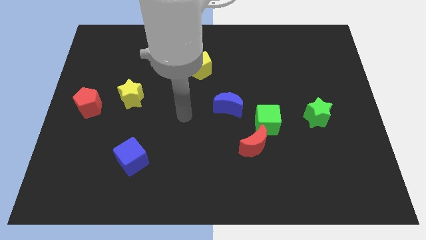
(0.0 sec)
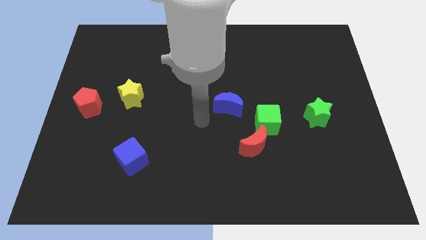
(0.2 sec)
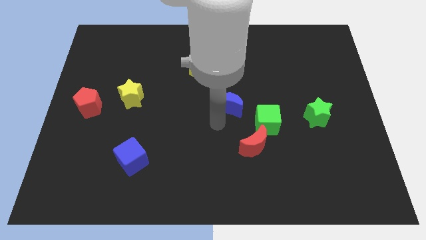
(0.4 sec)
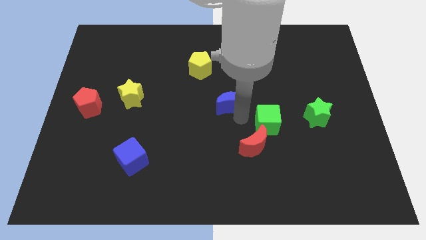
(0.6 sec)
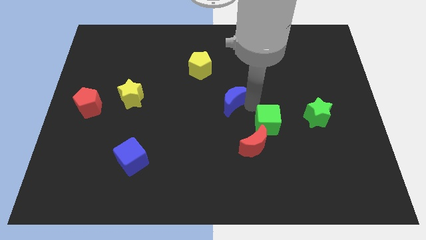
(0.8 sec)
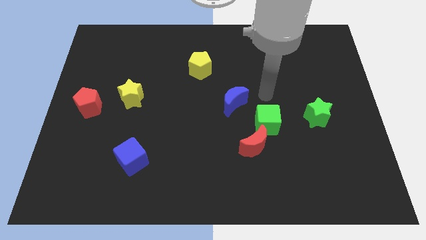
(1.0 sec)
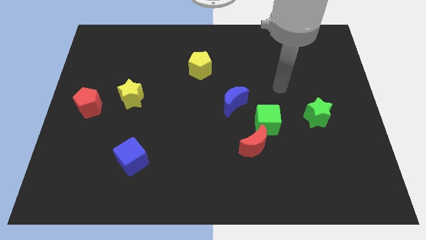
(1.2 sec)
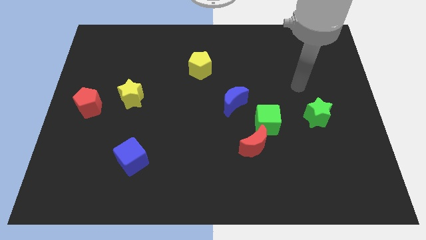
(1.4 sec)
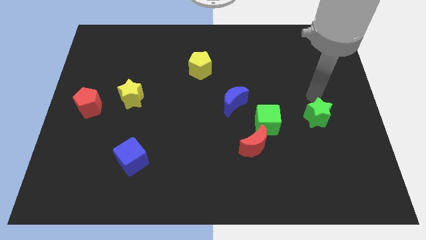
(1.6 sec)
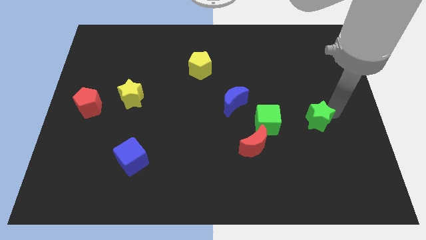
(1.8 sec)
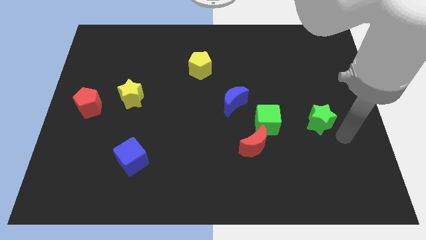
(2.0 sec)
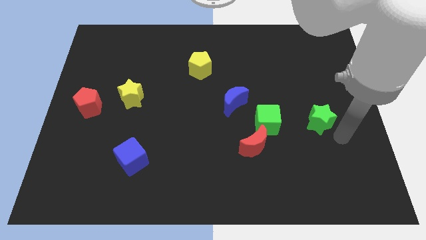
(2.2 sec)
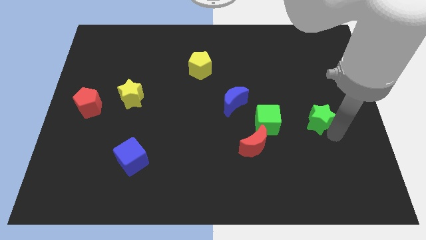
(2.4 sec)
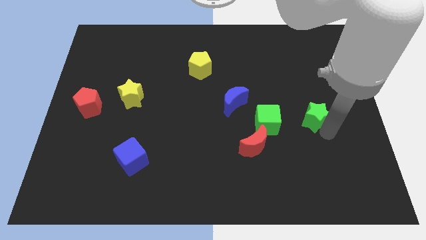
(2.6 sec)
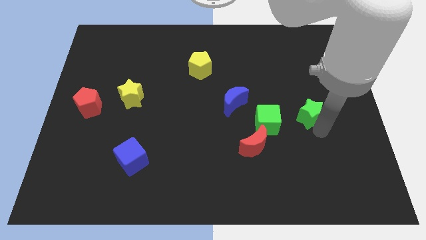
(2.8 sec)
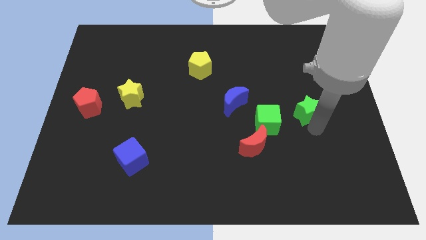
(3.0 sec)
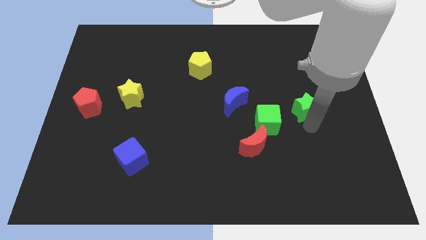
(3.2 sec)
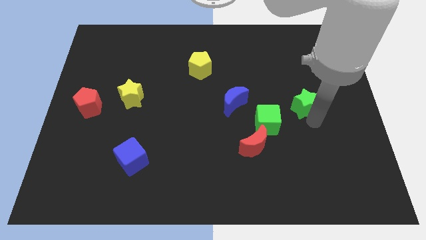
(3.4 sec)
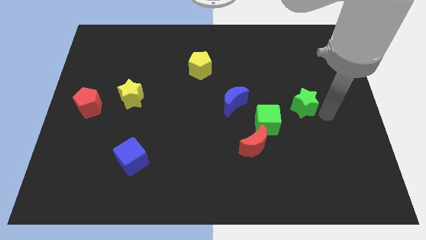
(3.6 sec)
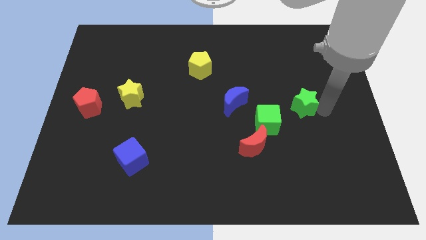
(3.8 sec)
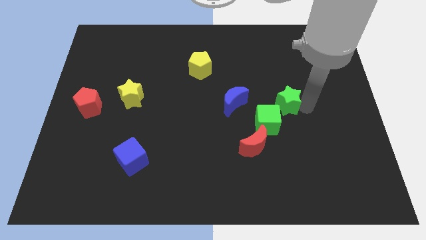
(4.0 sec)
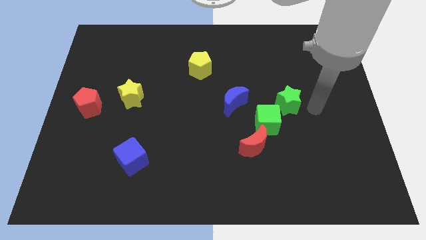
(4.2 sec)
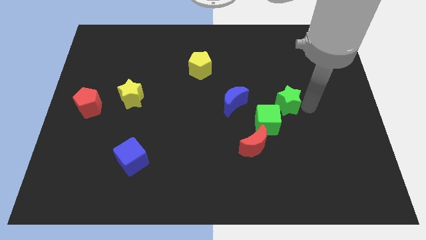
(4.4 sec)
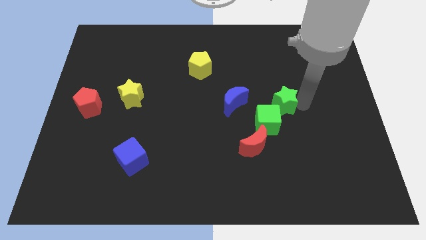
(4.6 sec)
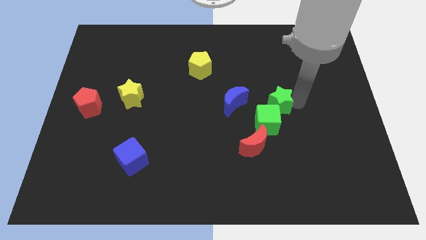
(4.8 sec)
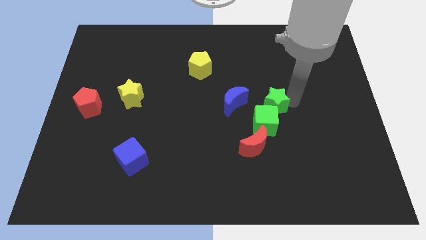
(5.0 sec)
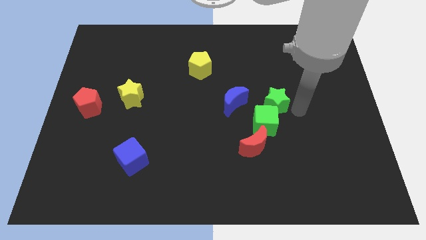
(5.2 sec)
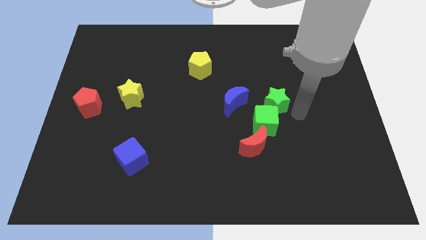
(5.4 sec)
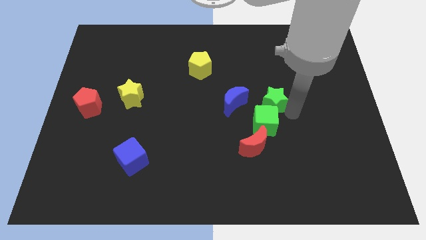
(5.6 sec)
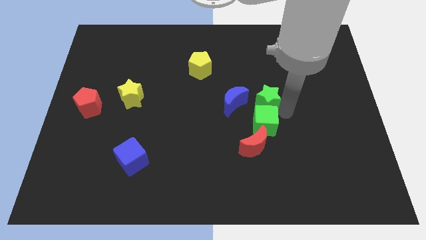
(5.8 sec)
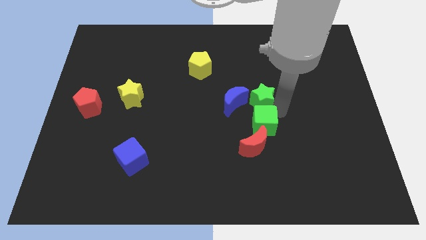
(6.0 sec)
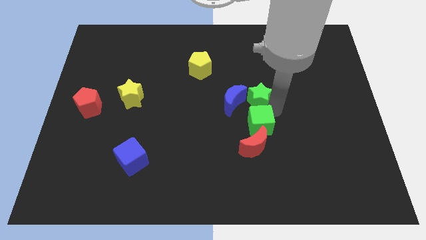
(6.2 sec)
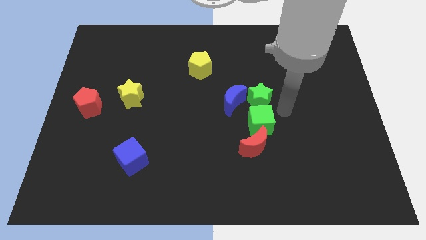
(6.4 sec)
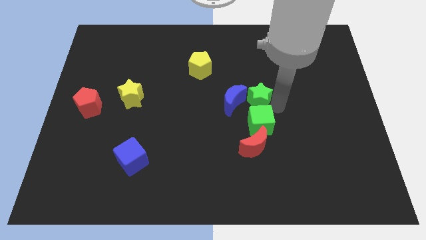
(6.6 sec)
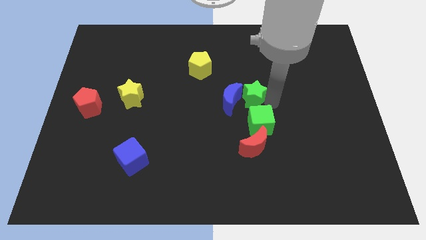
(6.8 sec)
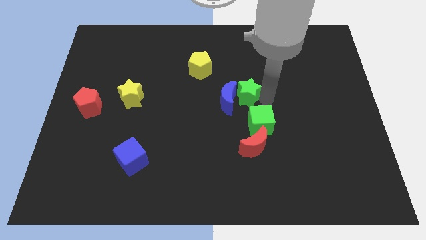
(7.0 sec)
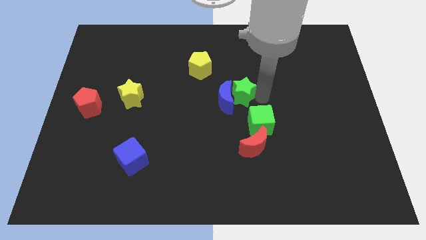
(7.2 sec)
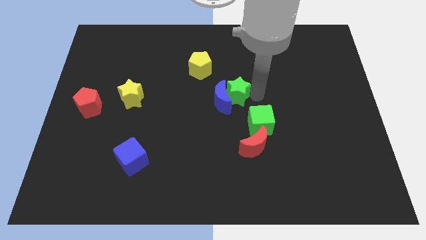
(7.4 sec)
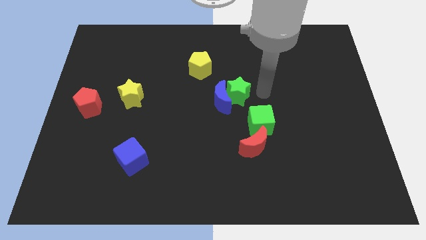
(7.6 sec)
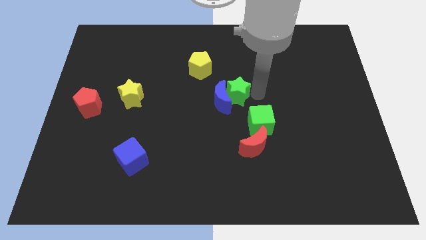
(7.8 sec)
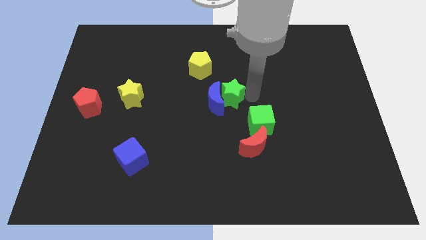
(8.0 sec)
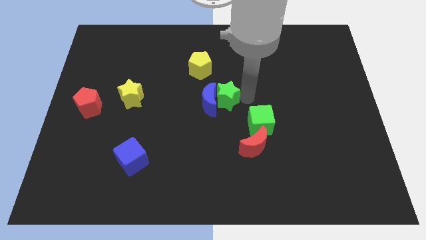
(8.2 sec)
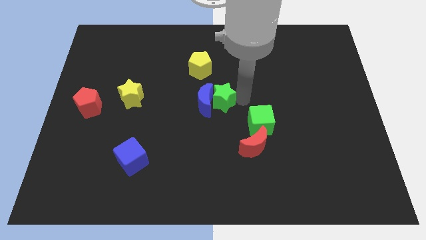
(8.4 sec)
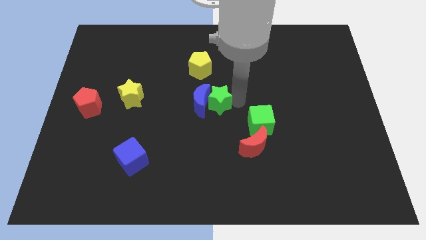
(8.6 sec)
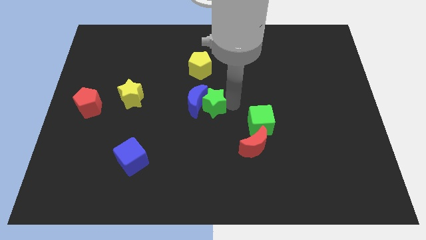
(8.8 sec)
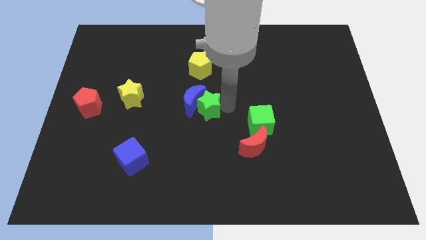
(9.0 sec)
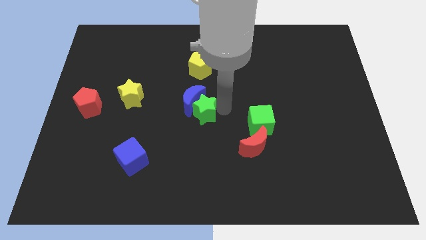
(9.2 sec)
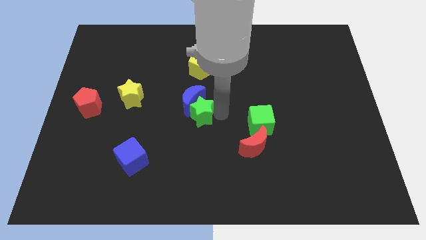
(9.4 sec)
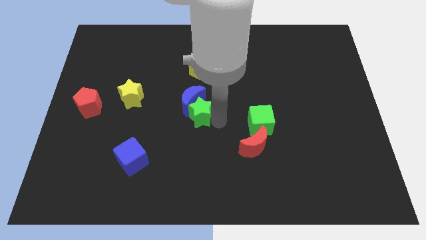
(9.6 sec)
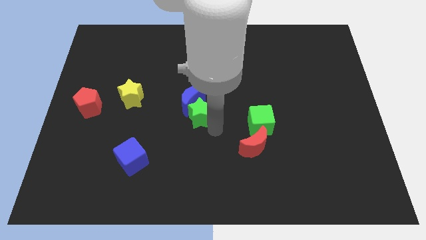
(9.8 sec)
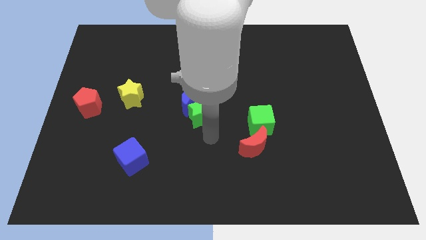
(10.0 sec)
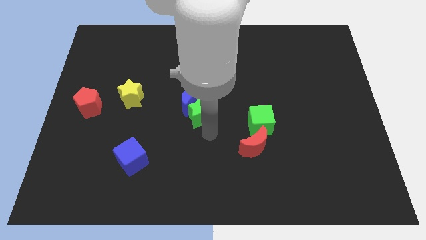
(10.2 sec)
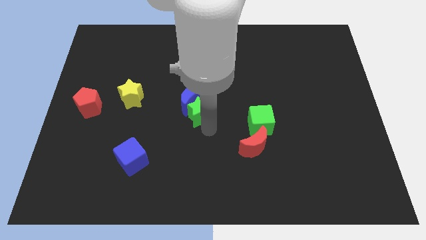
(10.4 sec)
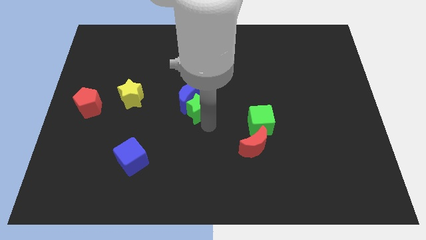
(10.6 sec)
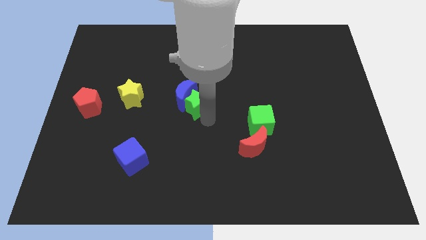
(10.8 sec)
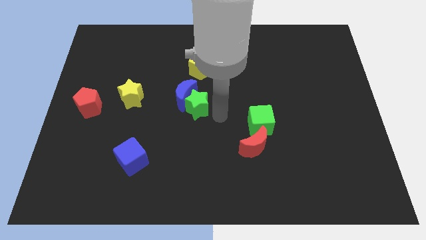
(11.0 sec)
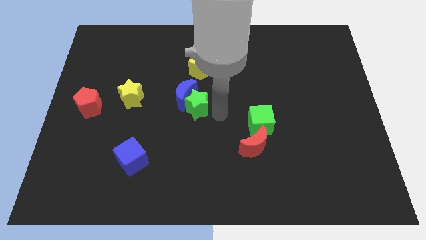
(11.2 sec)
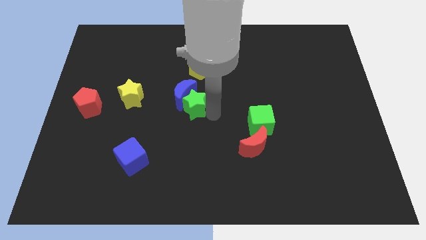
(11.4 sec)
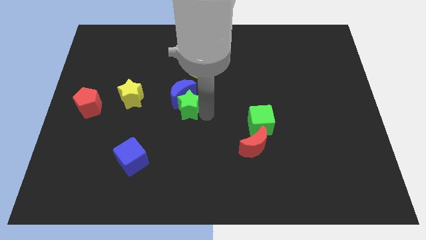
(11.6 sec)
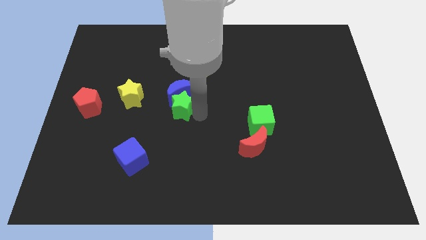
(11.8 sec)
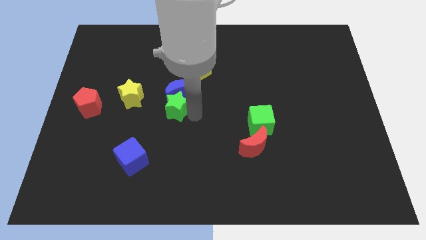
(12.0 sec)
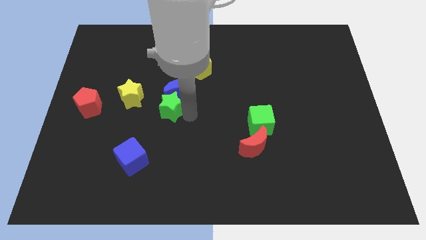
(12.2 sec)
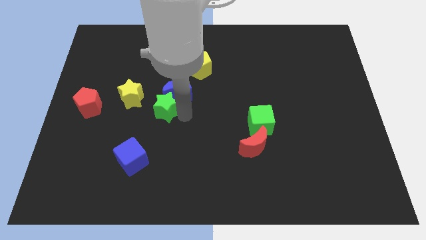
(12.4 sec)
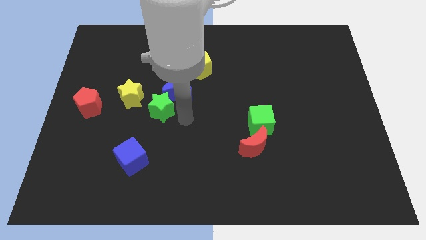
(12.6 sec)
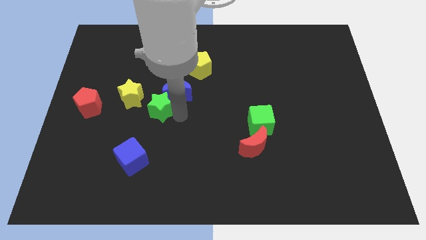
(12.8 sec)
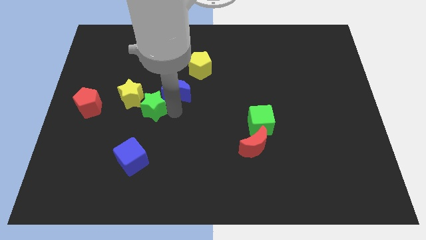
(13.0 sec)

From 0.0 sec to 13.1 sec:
put the green star next to the yellow star
